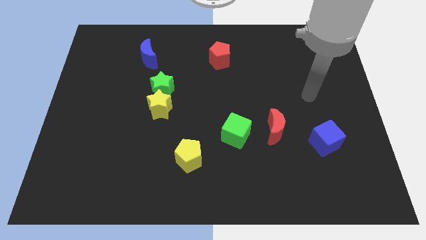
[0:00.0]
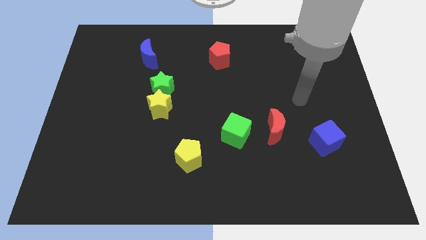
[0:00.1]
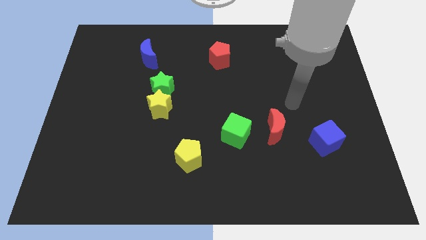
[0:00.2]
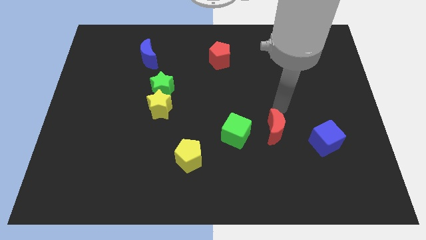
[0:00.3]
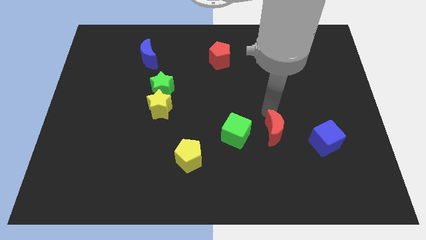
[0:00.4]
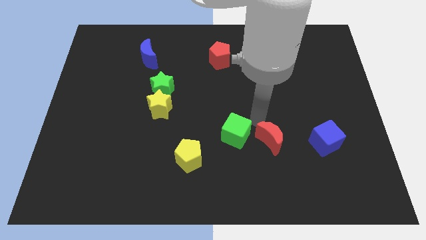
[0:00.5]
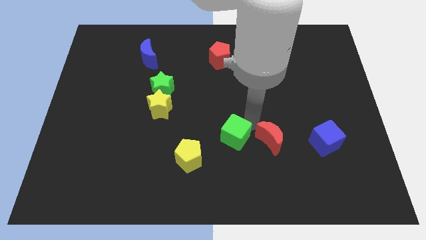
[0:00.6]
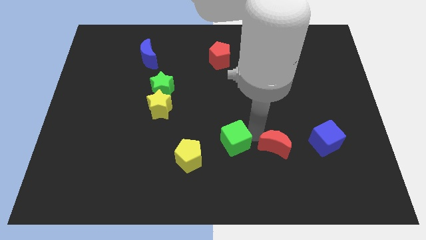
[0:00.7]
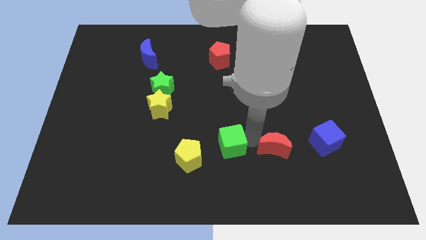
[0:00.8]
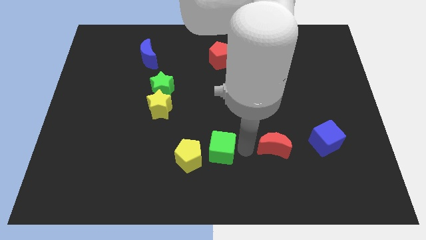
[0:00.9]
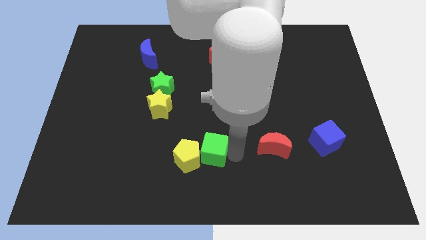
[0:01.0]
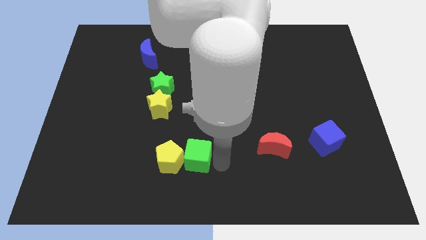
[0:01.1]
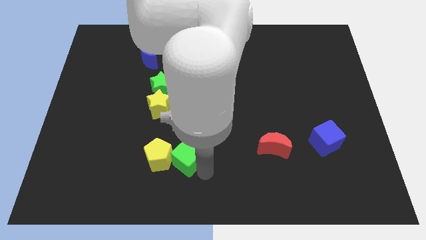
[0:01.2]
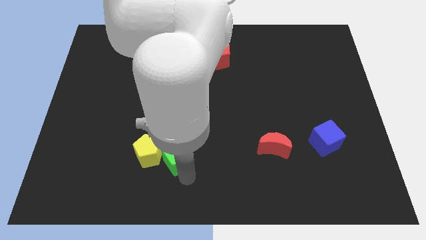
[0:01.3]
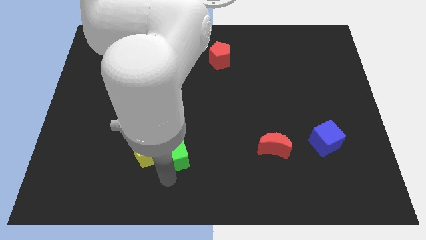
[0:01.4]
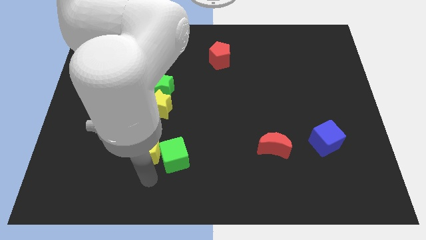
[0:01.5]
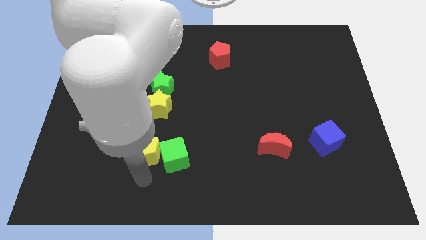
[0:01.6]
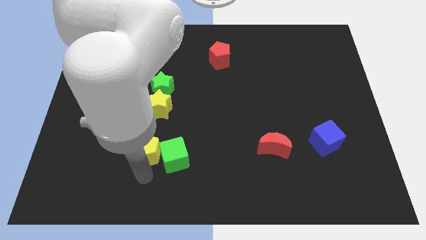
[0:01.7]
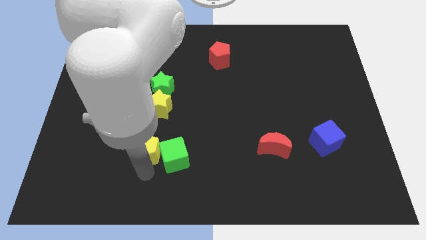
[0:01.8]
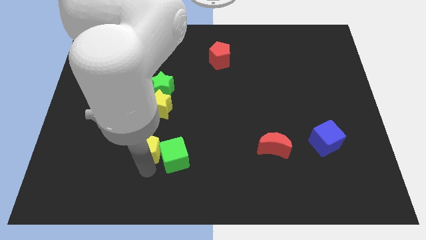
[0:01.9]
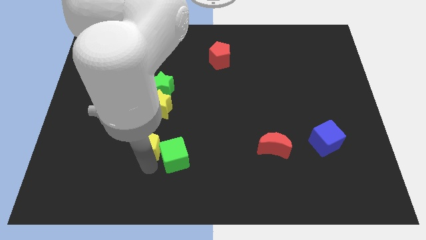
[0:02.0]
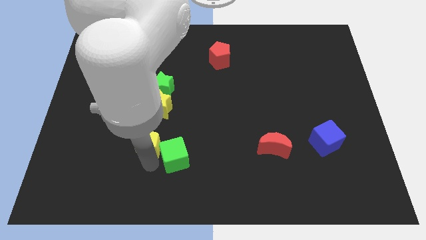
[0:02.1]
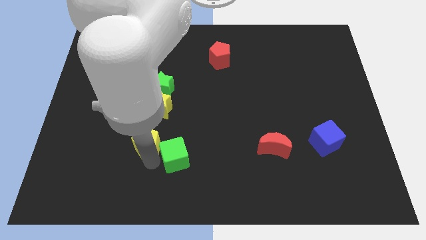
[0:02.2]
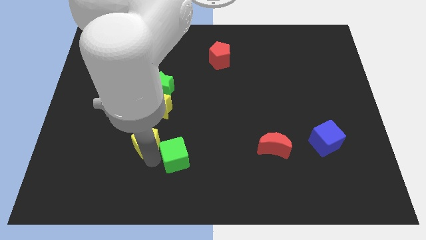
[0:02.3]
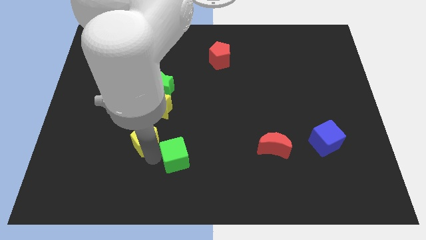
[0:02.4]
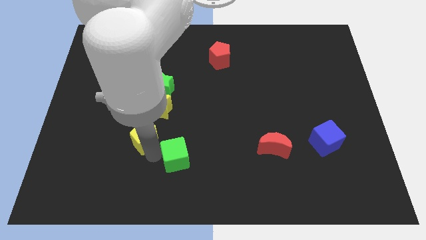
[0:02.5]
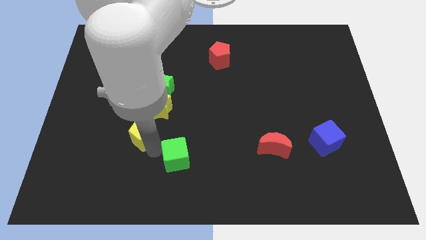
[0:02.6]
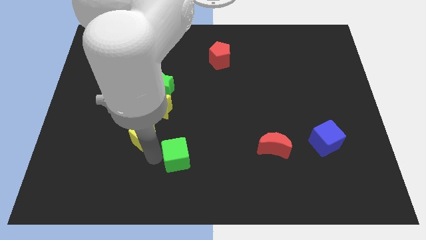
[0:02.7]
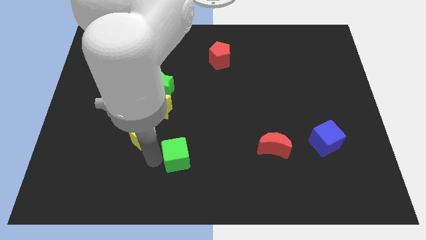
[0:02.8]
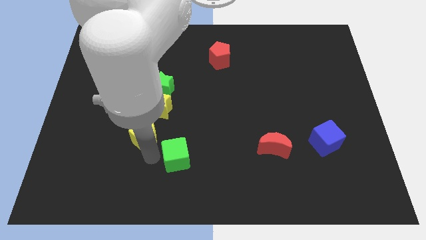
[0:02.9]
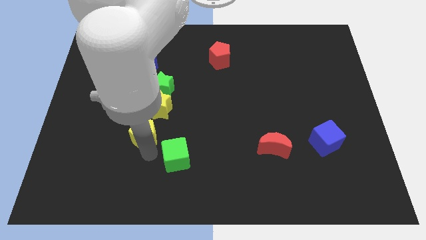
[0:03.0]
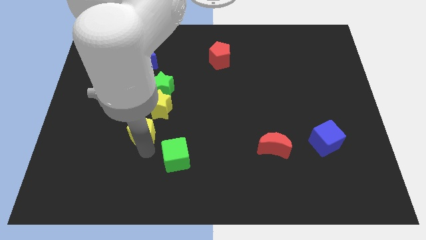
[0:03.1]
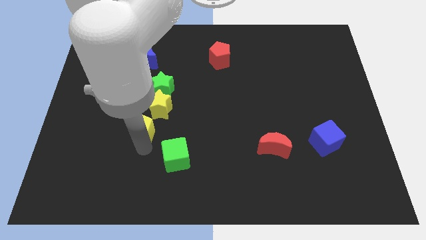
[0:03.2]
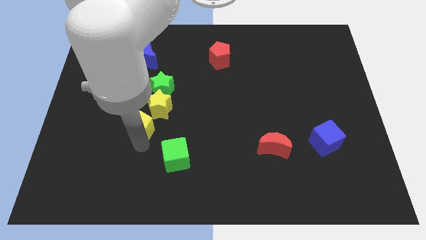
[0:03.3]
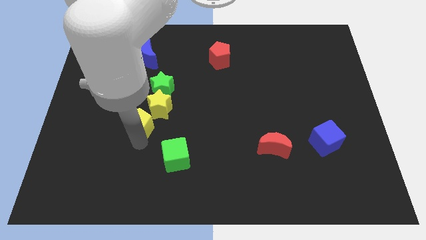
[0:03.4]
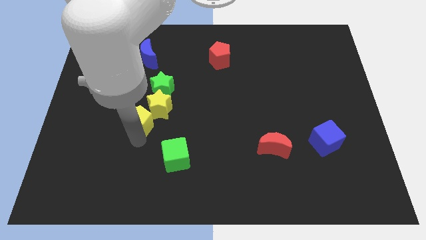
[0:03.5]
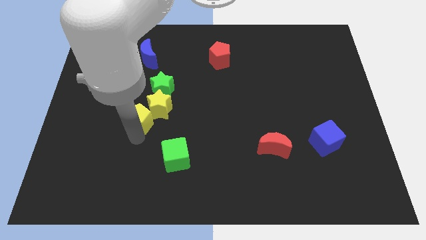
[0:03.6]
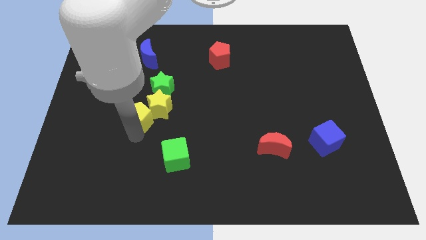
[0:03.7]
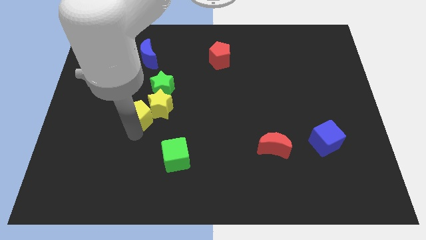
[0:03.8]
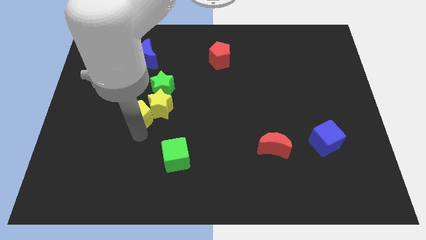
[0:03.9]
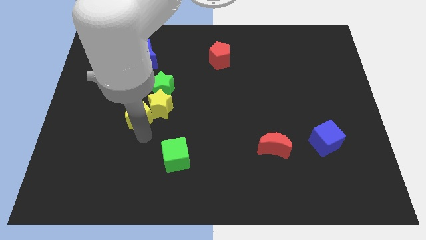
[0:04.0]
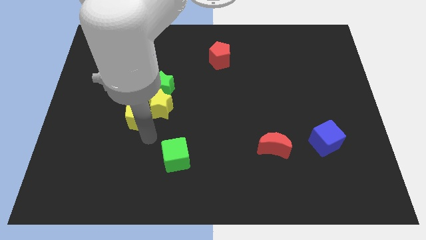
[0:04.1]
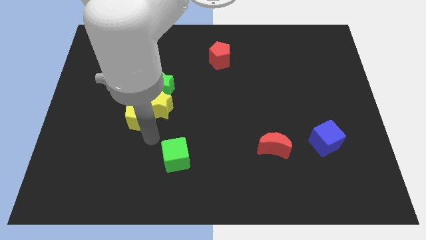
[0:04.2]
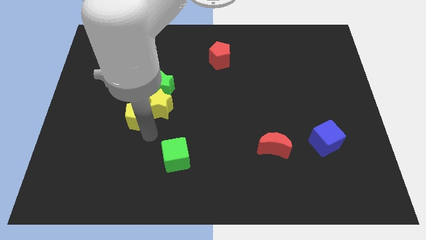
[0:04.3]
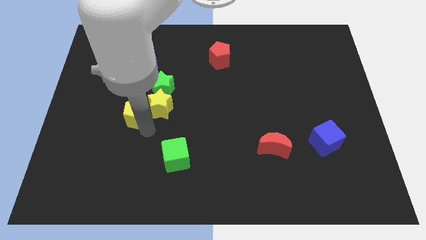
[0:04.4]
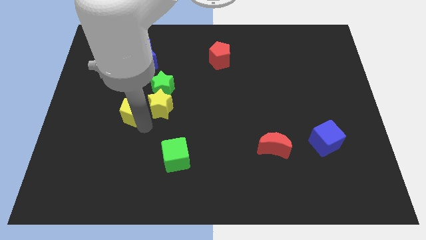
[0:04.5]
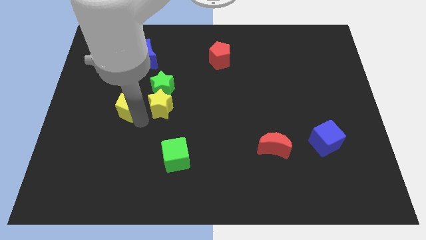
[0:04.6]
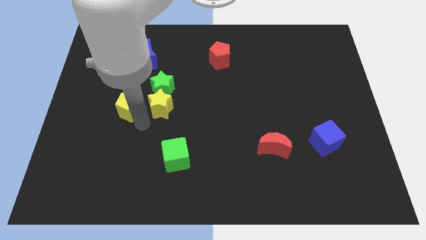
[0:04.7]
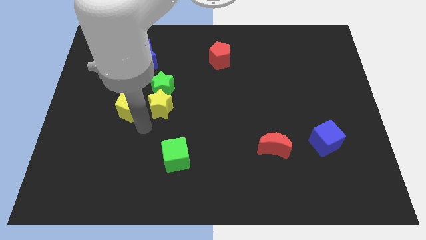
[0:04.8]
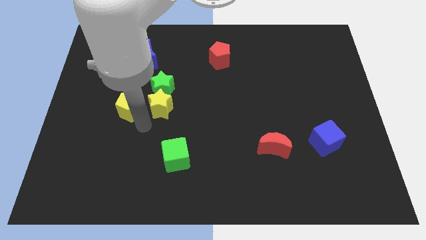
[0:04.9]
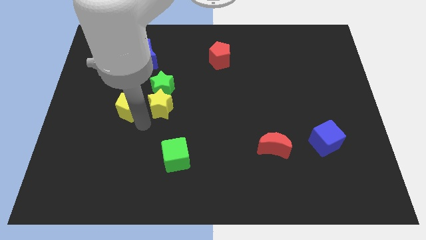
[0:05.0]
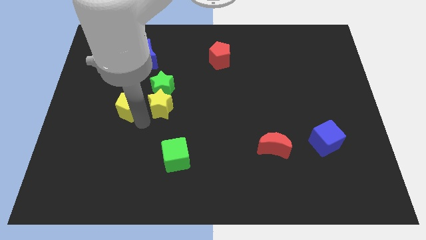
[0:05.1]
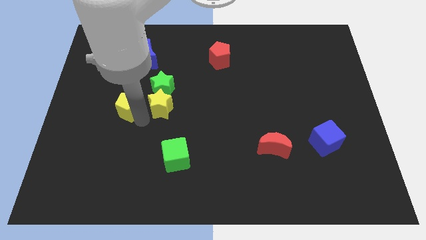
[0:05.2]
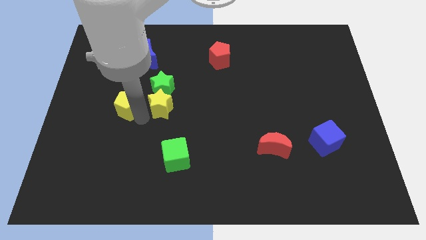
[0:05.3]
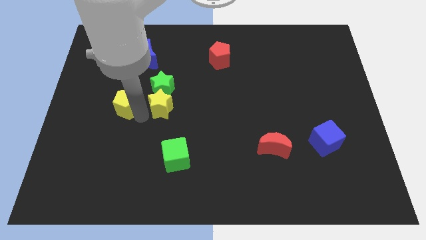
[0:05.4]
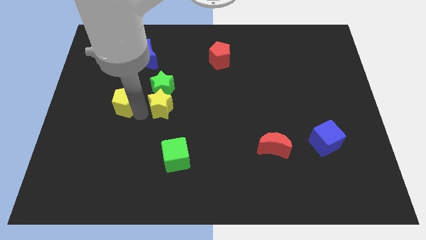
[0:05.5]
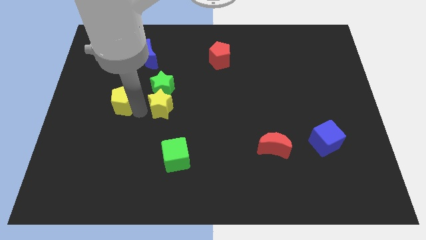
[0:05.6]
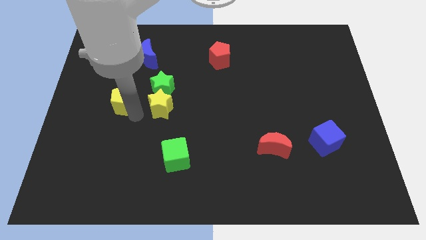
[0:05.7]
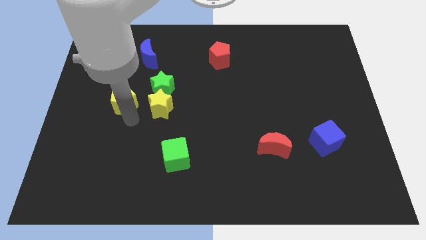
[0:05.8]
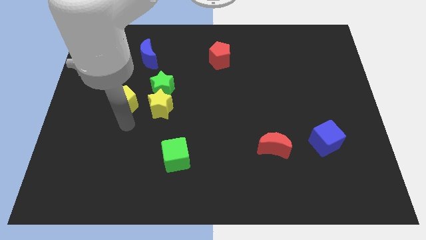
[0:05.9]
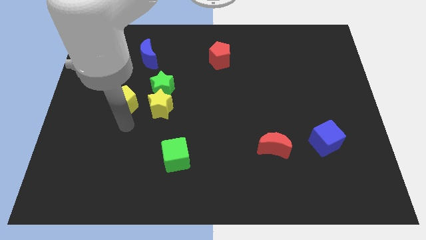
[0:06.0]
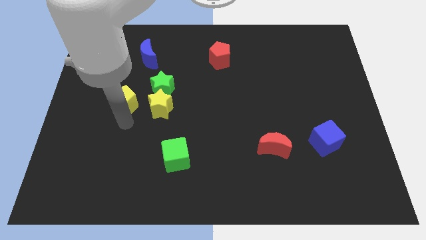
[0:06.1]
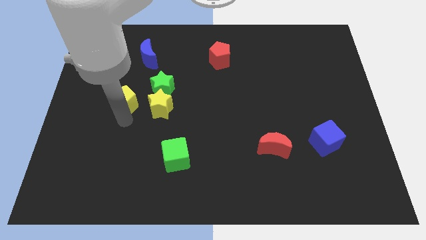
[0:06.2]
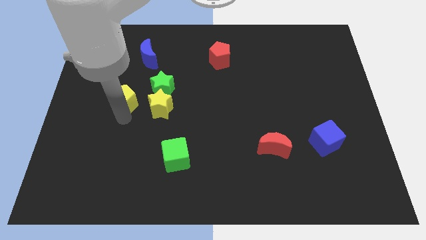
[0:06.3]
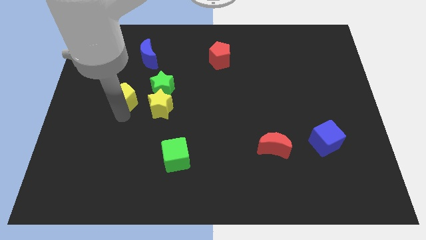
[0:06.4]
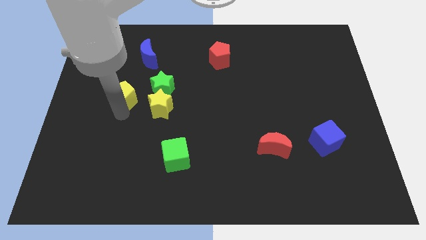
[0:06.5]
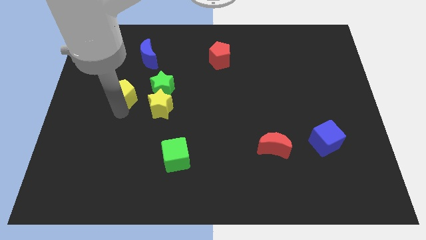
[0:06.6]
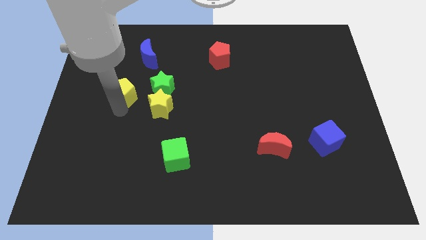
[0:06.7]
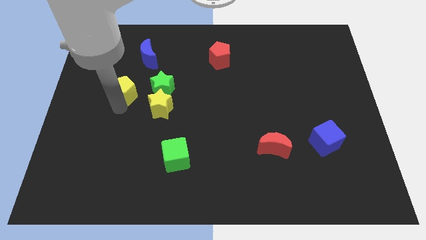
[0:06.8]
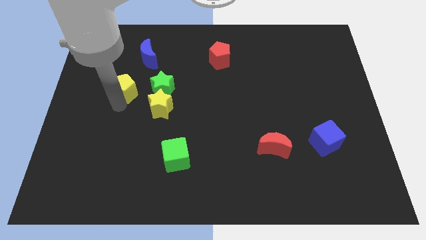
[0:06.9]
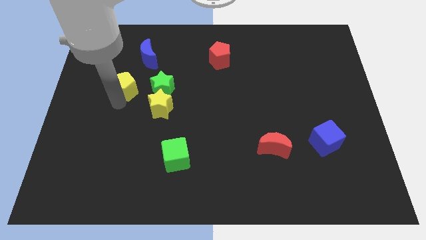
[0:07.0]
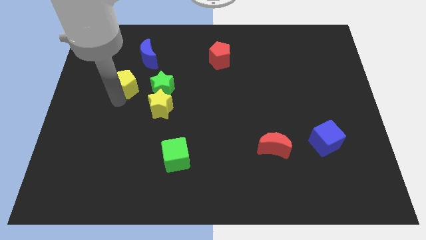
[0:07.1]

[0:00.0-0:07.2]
put the yellow pentagon diagonally down and to the left of the blue moon
